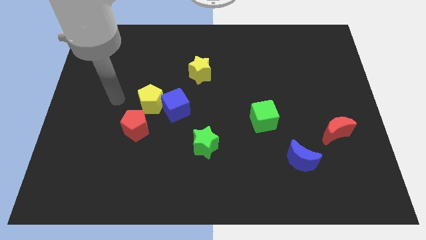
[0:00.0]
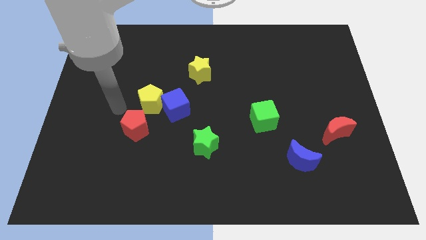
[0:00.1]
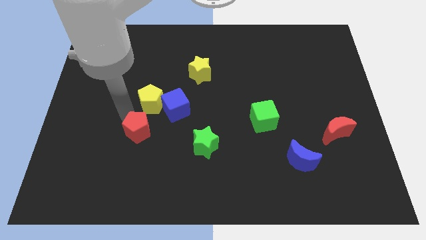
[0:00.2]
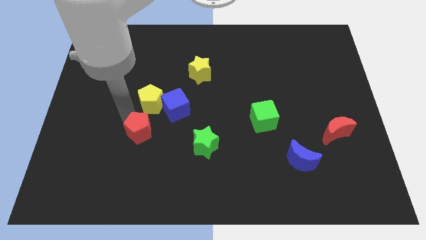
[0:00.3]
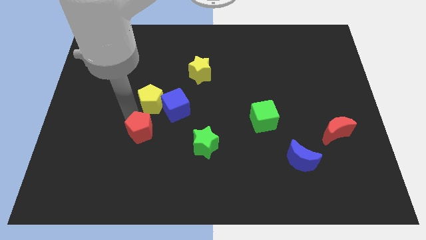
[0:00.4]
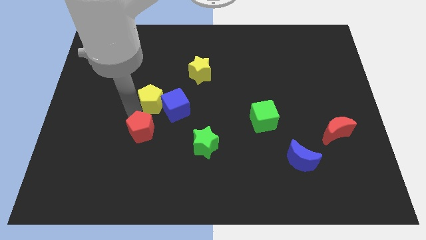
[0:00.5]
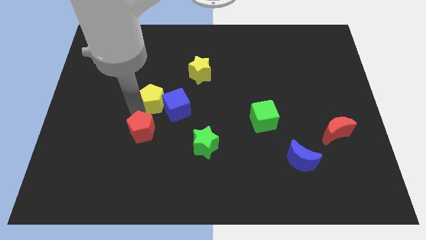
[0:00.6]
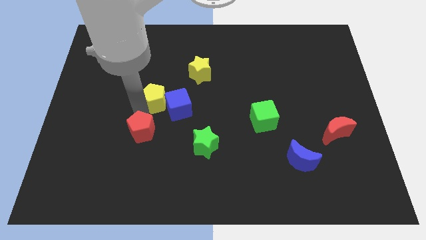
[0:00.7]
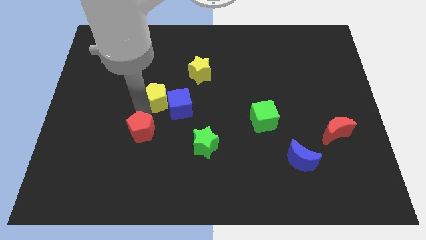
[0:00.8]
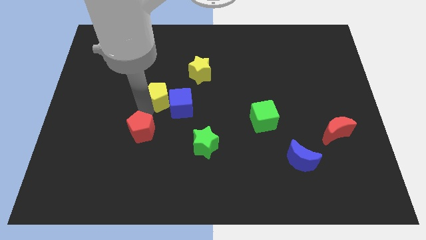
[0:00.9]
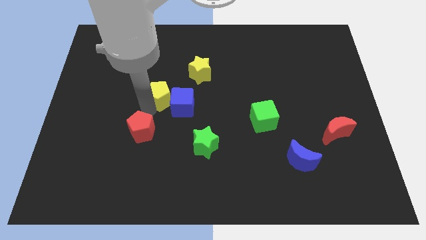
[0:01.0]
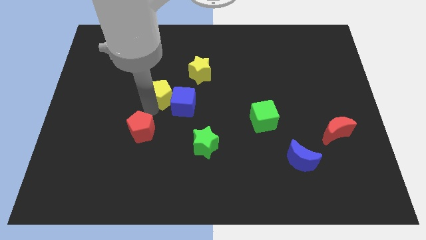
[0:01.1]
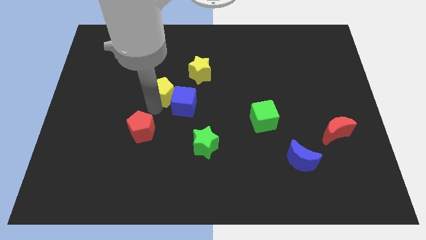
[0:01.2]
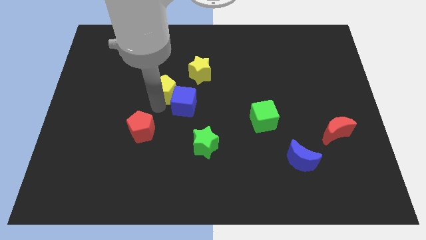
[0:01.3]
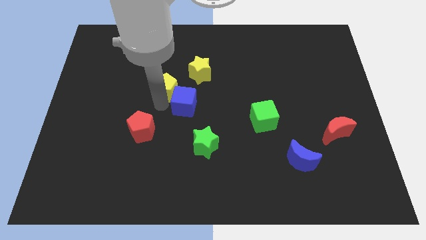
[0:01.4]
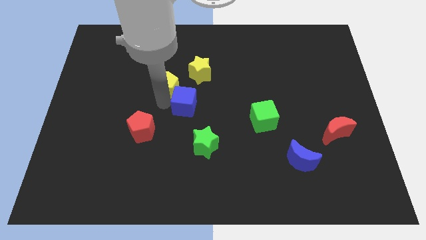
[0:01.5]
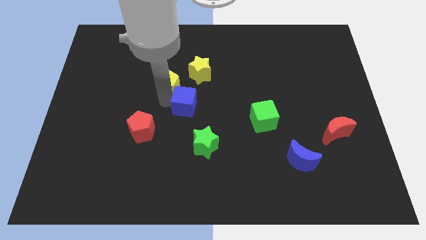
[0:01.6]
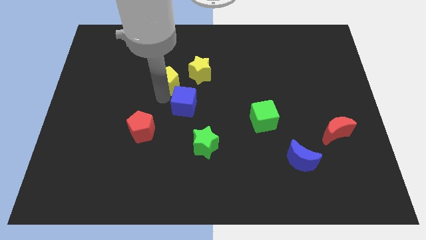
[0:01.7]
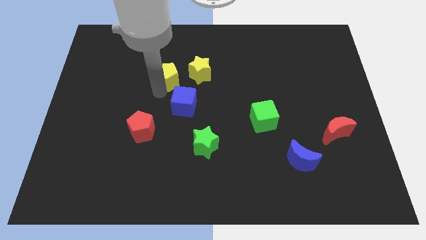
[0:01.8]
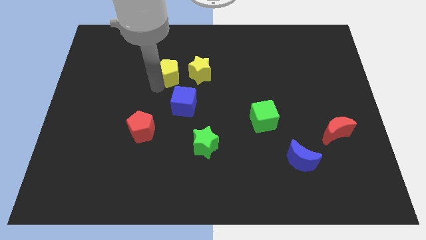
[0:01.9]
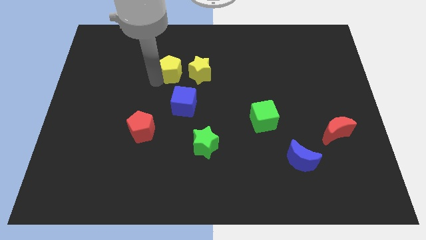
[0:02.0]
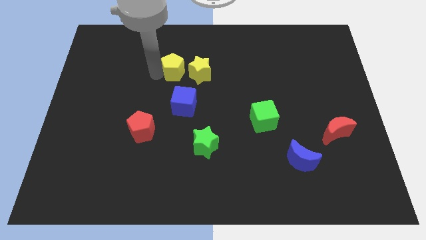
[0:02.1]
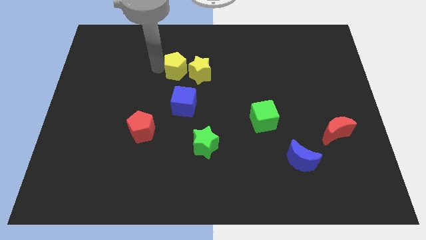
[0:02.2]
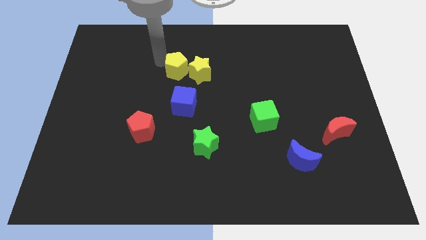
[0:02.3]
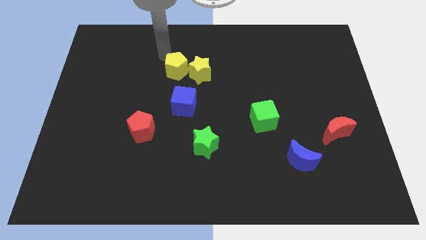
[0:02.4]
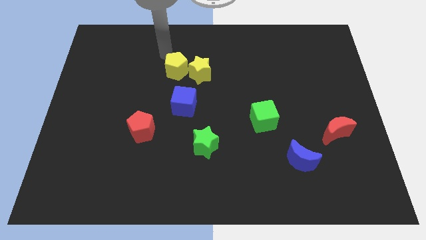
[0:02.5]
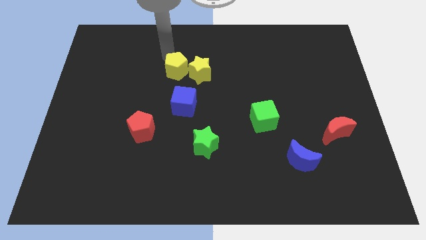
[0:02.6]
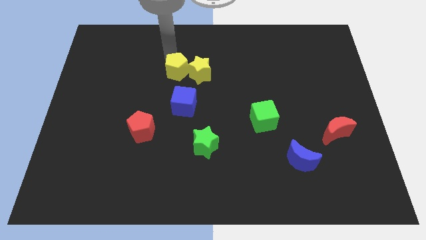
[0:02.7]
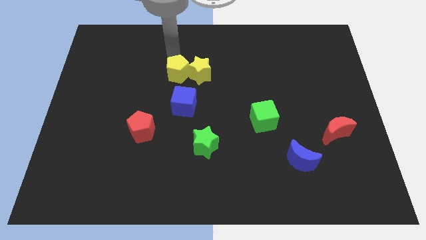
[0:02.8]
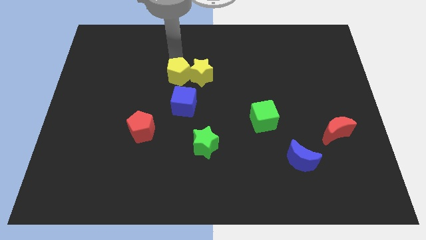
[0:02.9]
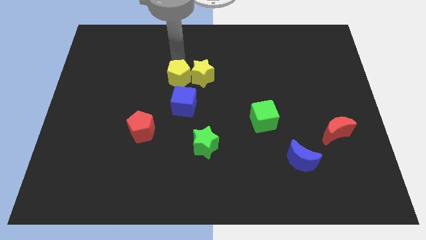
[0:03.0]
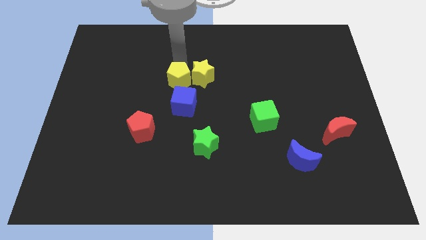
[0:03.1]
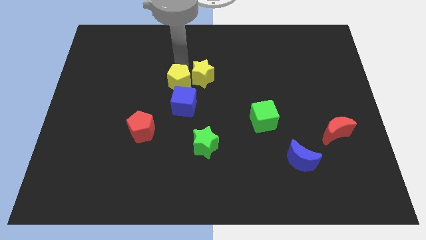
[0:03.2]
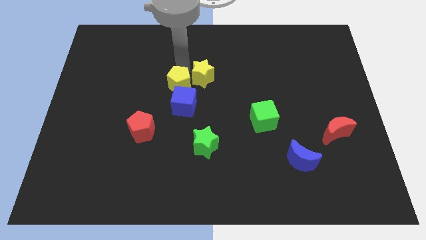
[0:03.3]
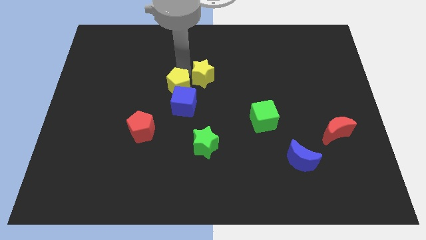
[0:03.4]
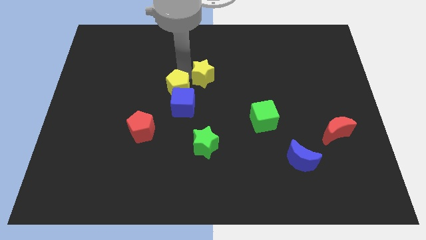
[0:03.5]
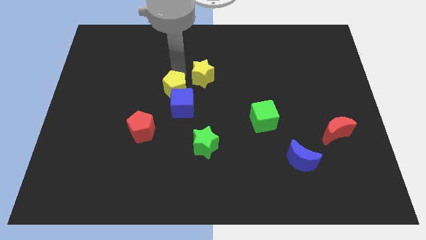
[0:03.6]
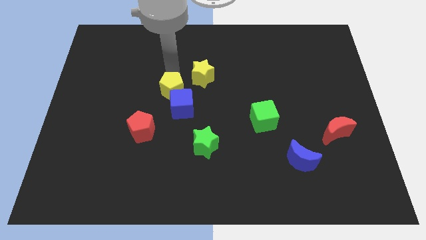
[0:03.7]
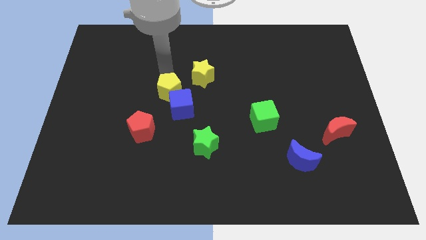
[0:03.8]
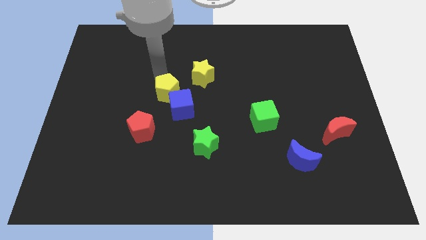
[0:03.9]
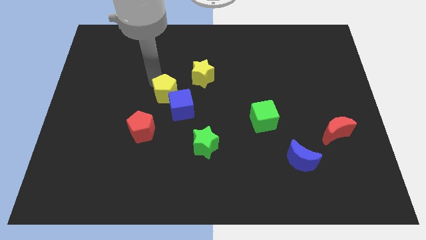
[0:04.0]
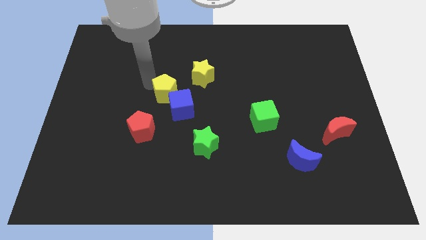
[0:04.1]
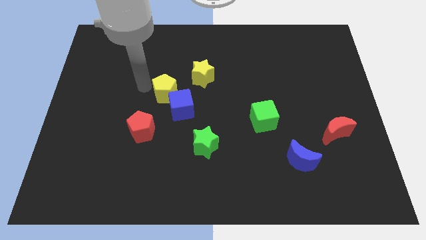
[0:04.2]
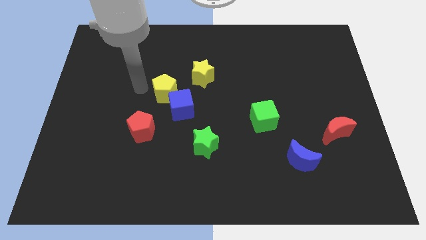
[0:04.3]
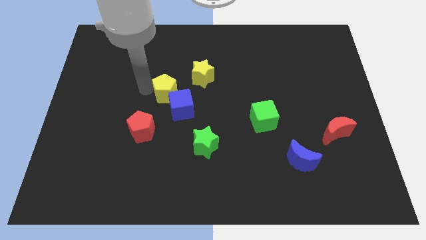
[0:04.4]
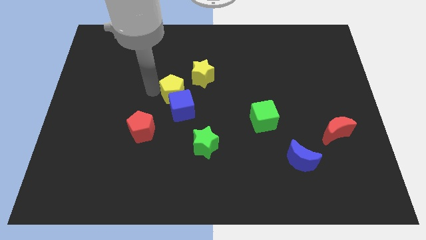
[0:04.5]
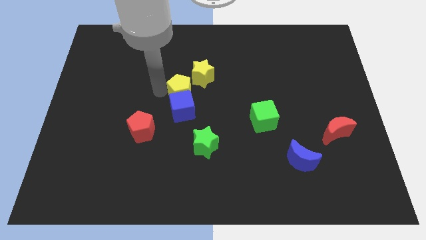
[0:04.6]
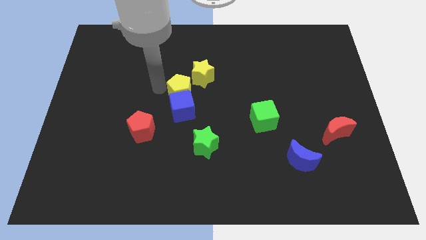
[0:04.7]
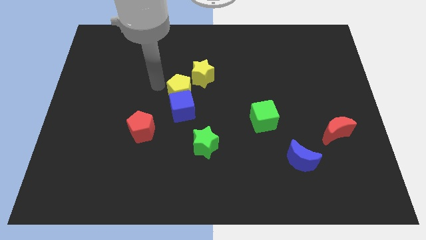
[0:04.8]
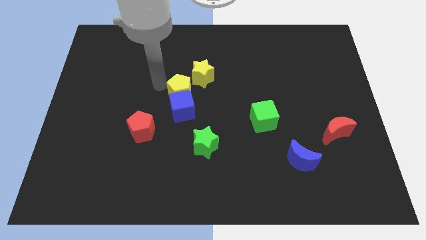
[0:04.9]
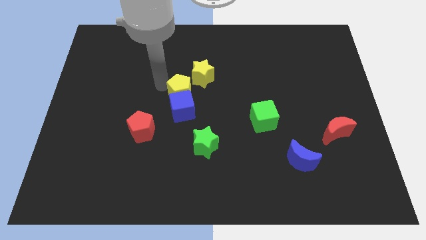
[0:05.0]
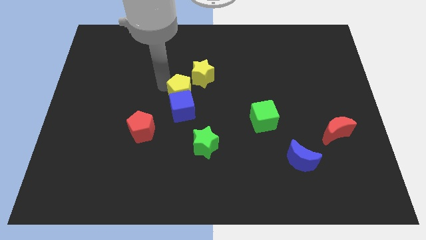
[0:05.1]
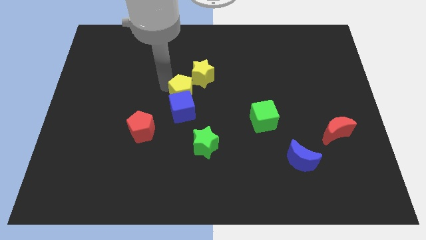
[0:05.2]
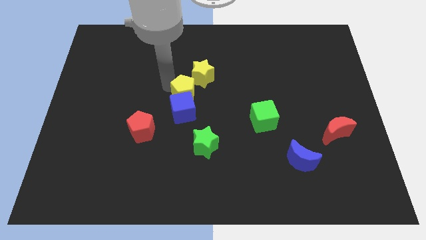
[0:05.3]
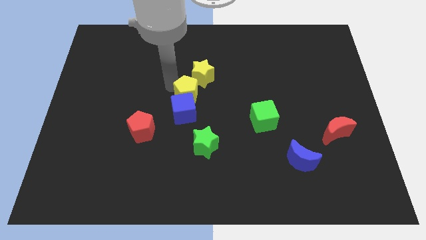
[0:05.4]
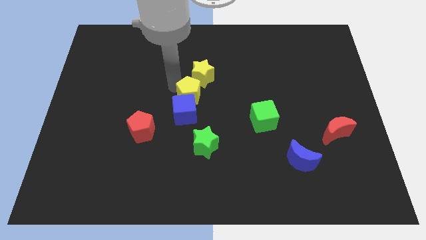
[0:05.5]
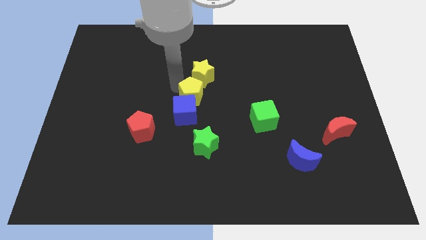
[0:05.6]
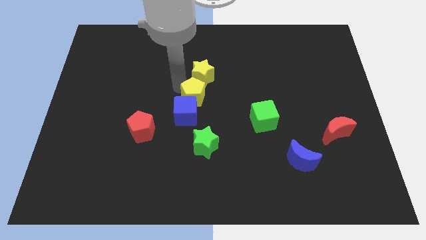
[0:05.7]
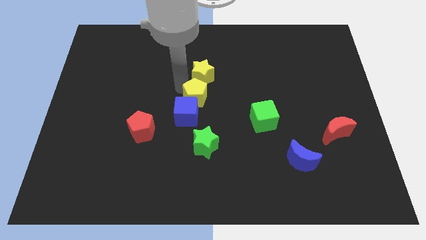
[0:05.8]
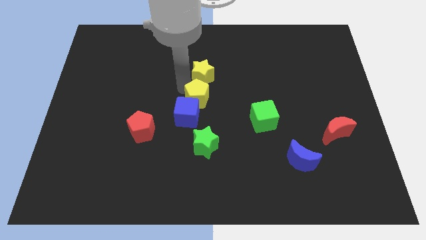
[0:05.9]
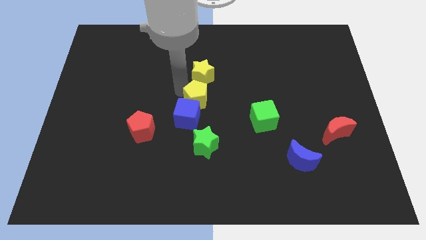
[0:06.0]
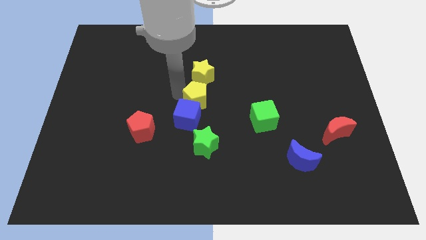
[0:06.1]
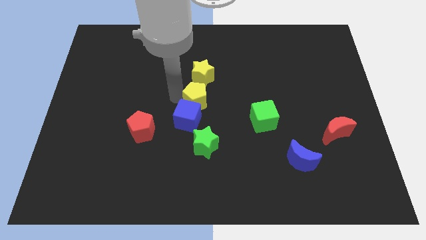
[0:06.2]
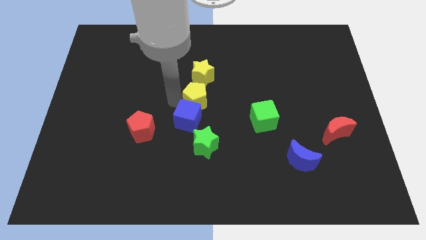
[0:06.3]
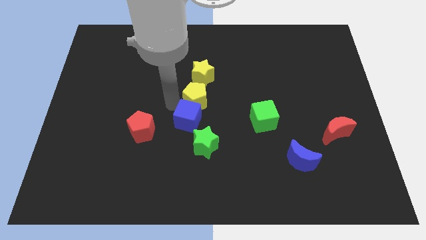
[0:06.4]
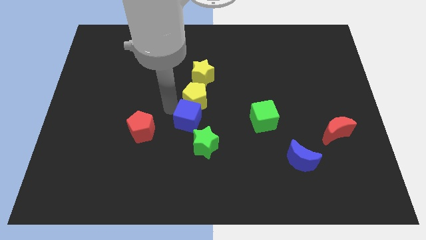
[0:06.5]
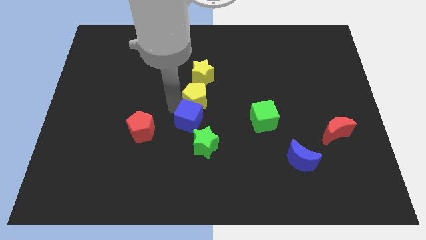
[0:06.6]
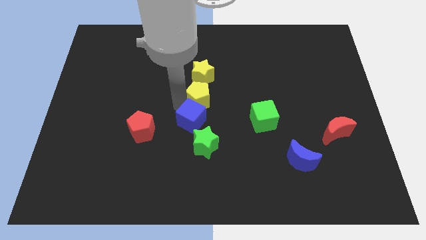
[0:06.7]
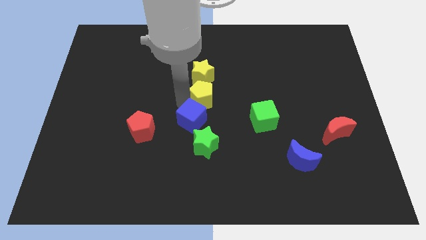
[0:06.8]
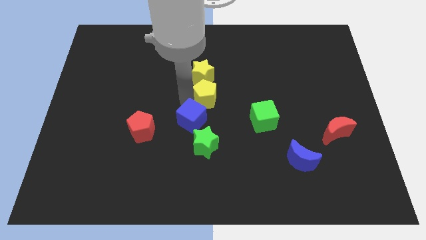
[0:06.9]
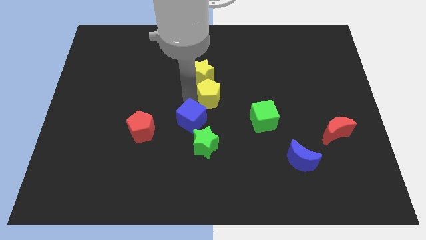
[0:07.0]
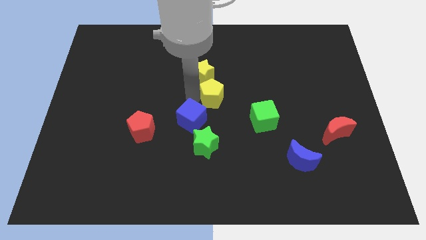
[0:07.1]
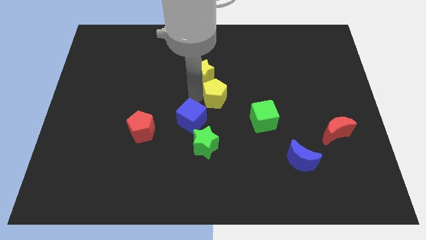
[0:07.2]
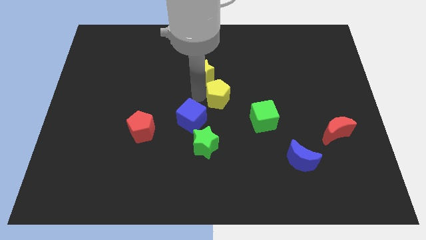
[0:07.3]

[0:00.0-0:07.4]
slide the yellow pentagon to the top left side of the green cube
